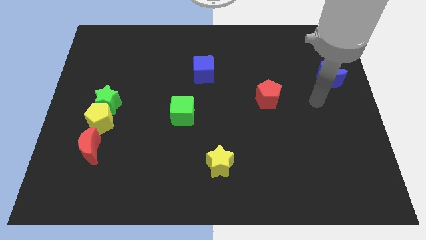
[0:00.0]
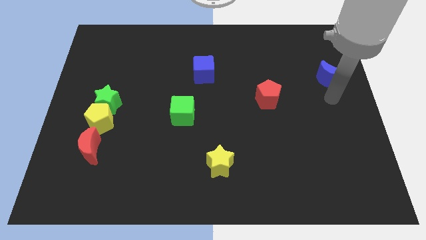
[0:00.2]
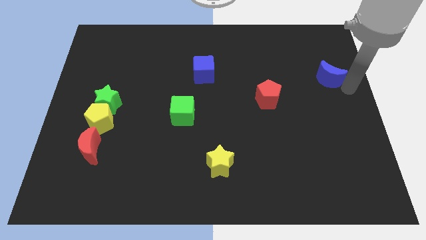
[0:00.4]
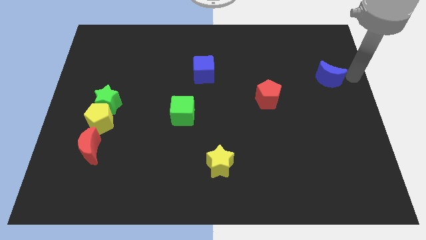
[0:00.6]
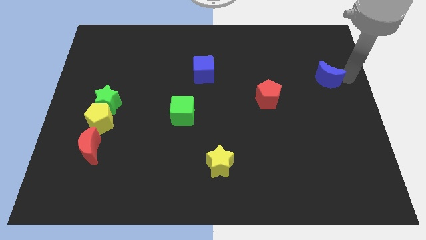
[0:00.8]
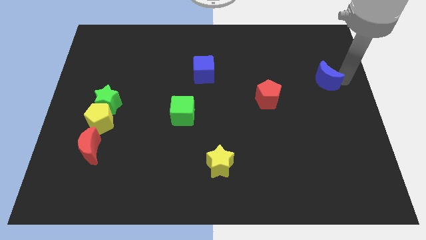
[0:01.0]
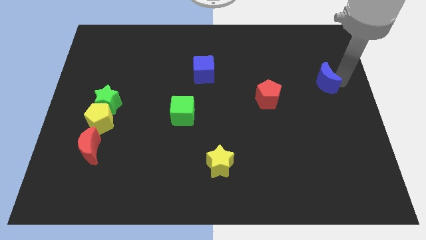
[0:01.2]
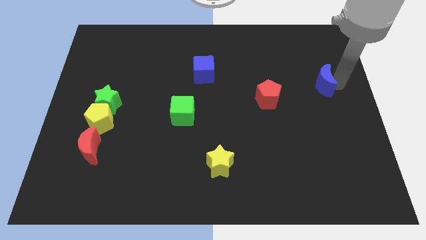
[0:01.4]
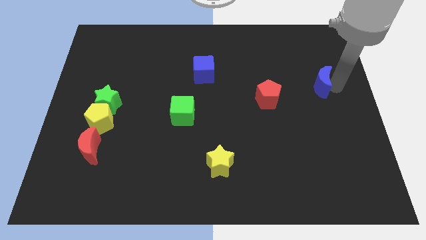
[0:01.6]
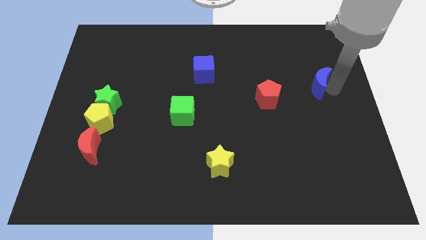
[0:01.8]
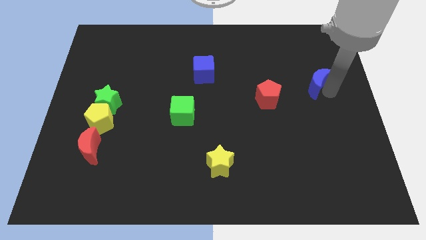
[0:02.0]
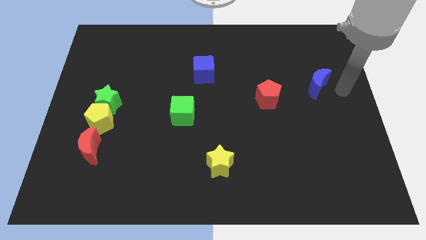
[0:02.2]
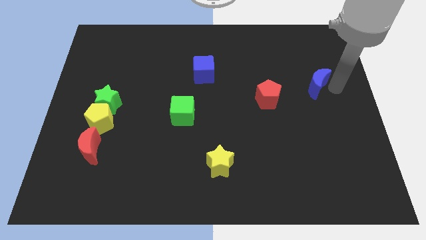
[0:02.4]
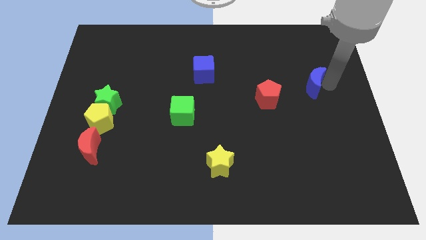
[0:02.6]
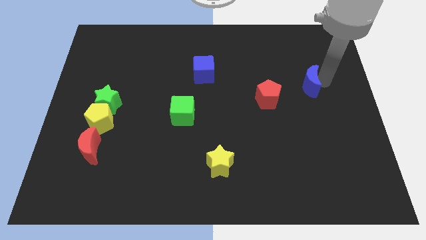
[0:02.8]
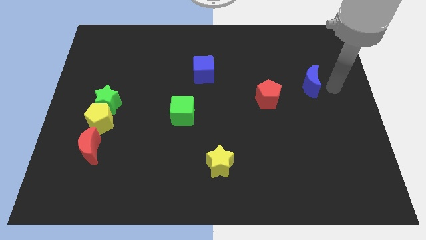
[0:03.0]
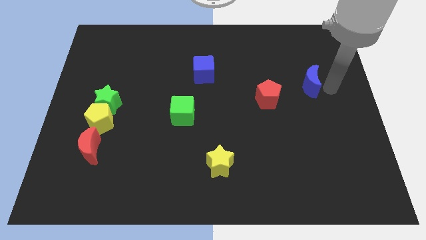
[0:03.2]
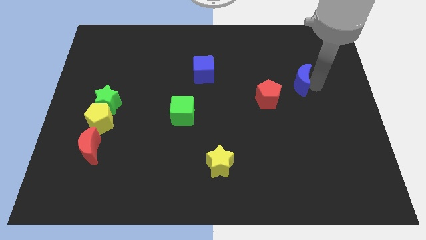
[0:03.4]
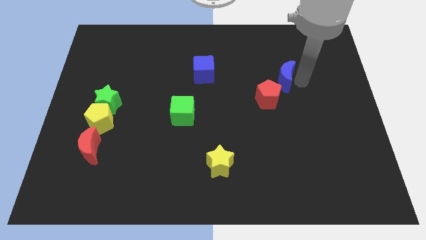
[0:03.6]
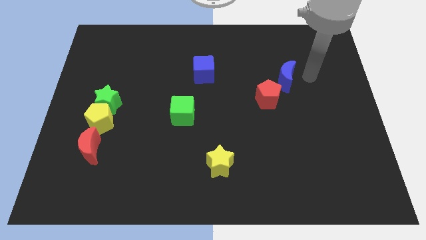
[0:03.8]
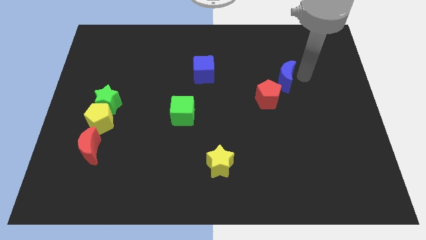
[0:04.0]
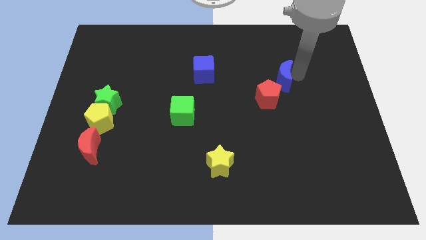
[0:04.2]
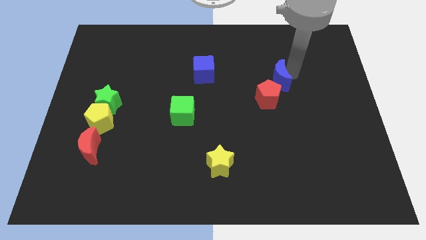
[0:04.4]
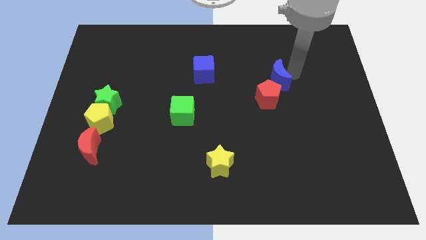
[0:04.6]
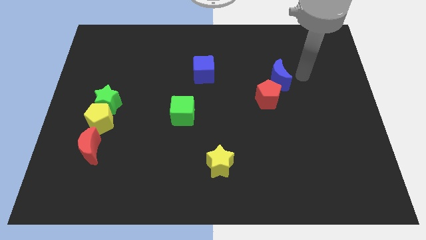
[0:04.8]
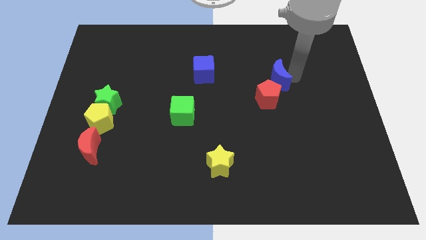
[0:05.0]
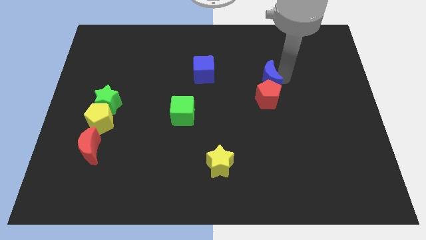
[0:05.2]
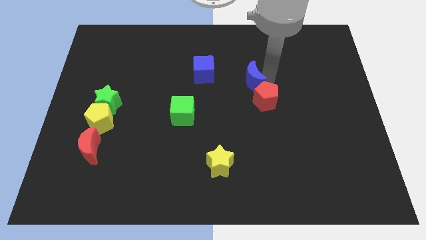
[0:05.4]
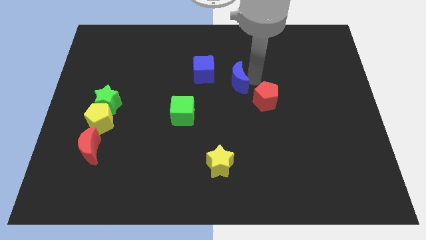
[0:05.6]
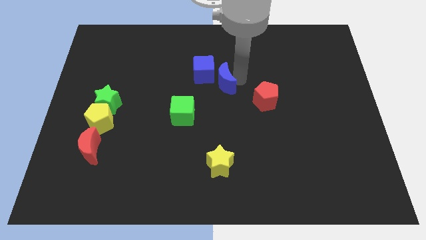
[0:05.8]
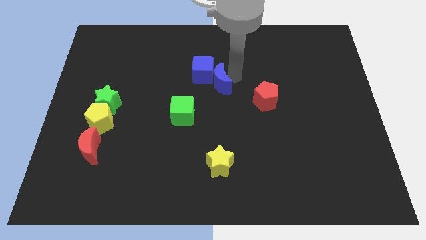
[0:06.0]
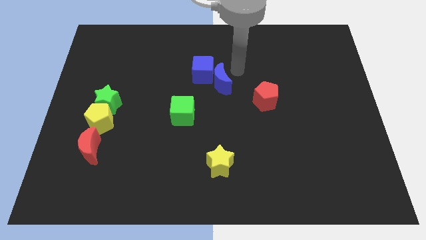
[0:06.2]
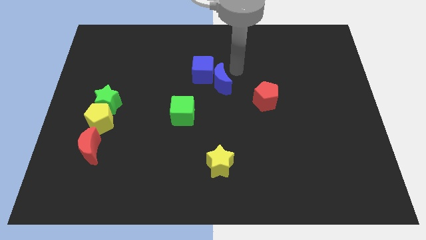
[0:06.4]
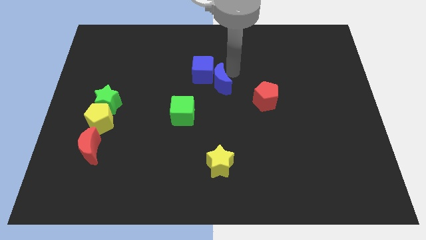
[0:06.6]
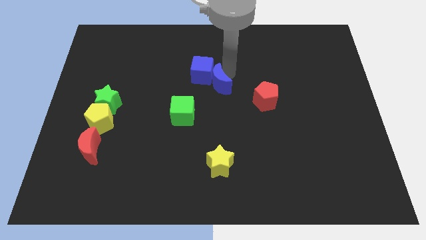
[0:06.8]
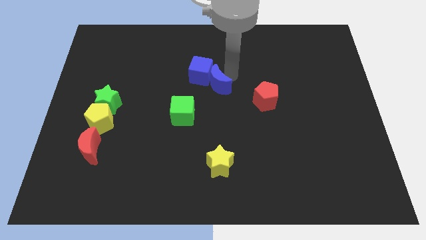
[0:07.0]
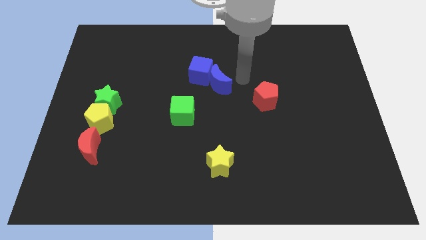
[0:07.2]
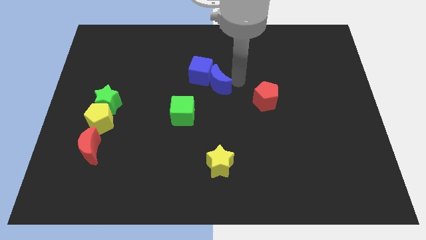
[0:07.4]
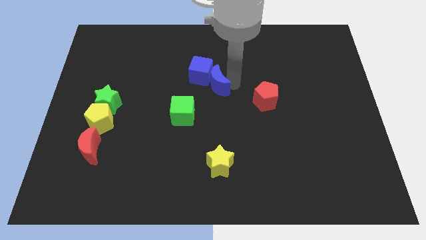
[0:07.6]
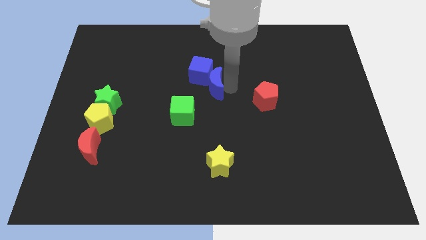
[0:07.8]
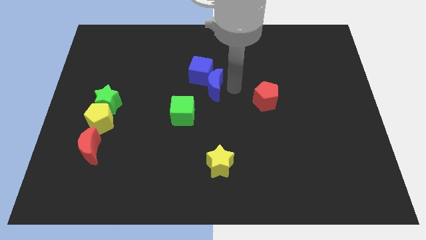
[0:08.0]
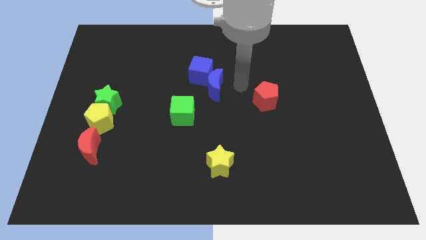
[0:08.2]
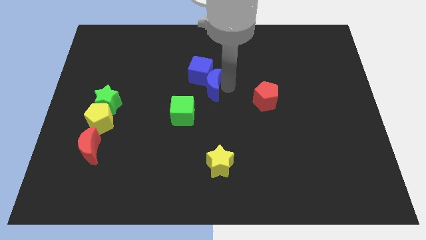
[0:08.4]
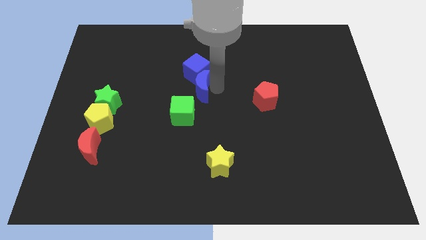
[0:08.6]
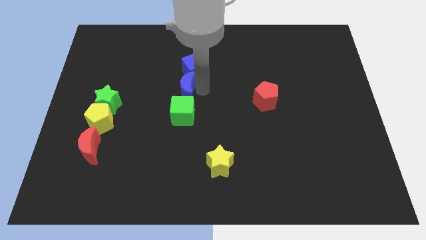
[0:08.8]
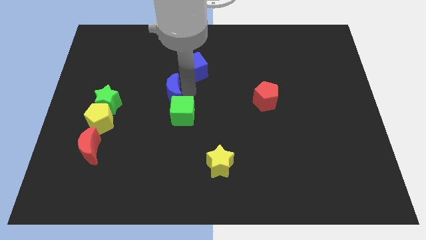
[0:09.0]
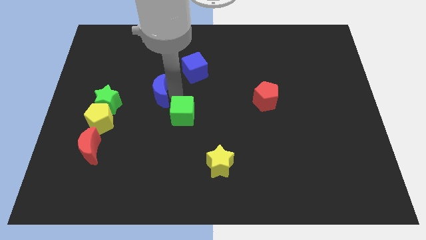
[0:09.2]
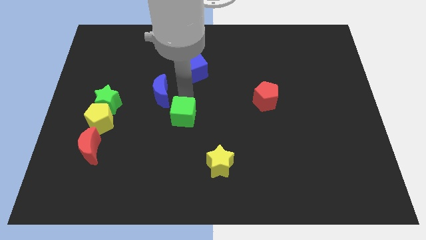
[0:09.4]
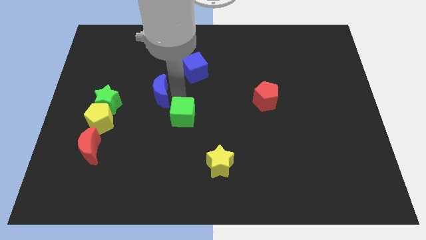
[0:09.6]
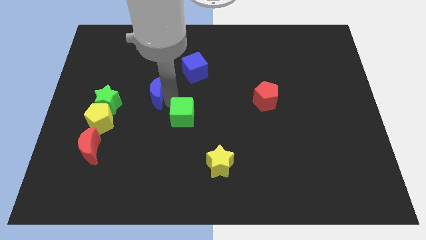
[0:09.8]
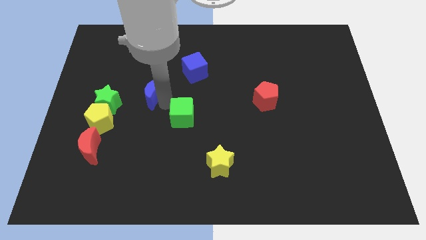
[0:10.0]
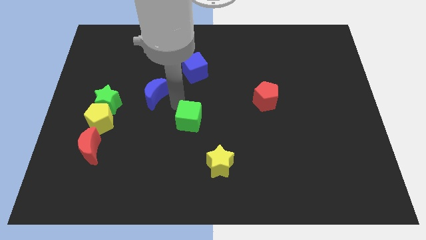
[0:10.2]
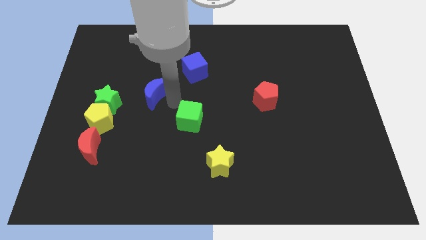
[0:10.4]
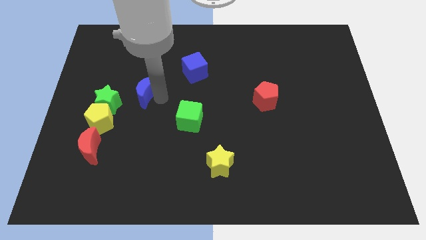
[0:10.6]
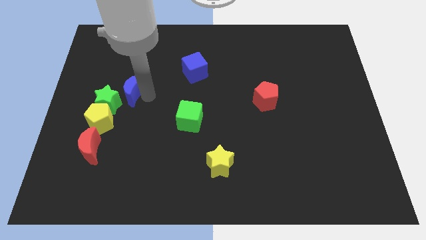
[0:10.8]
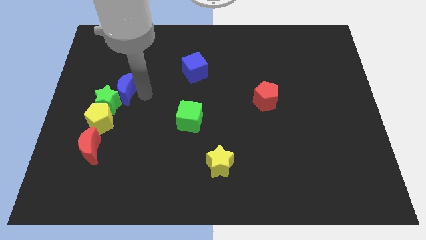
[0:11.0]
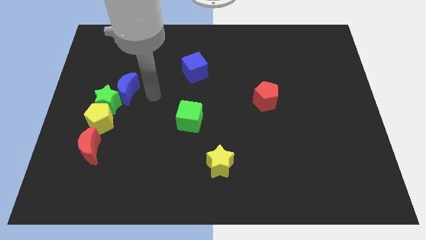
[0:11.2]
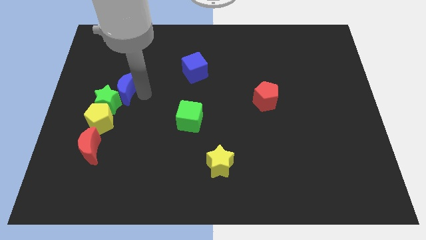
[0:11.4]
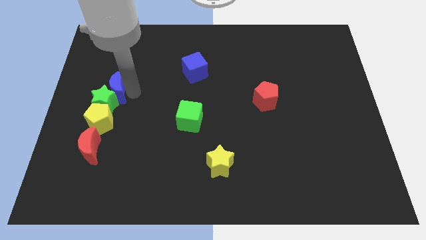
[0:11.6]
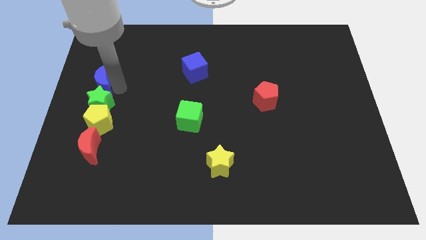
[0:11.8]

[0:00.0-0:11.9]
put the blue moon to the left side

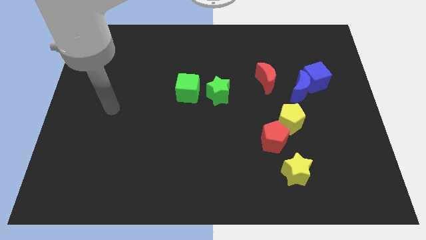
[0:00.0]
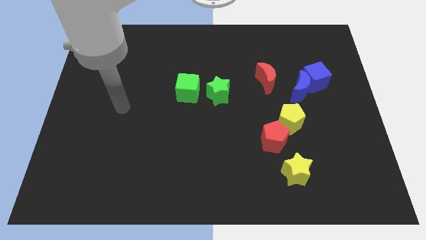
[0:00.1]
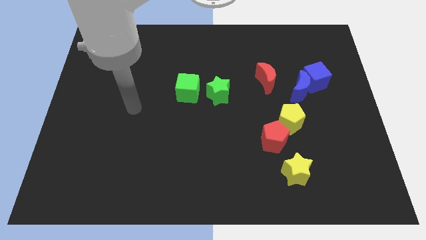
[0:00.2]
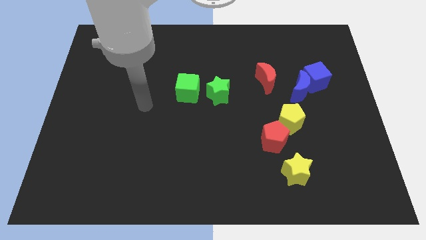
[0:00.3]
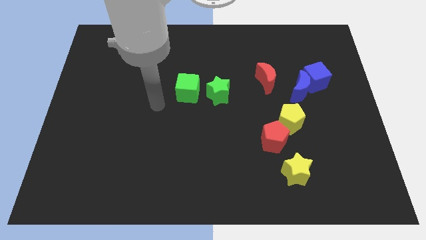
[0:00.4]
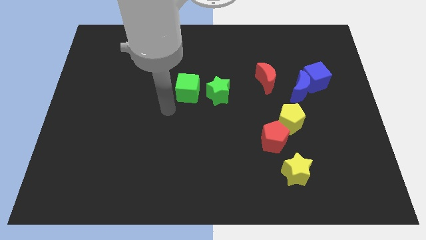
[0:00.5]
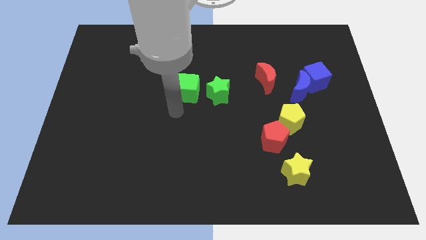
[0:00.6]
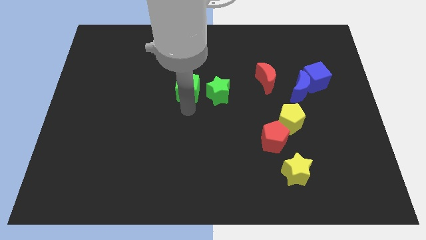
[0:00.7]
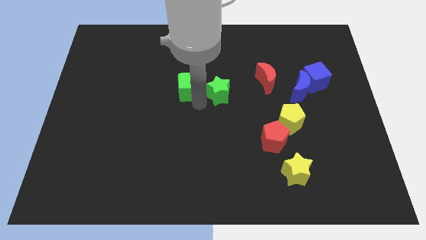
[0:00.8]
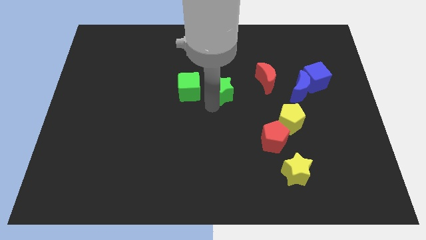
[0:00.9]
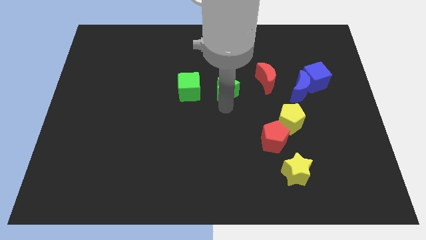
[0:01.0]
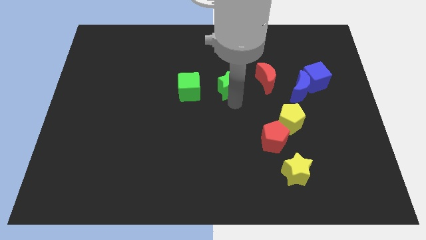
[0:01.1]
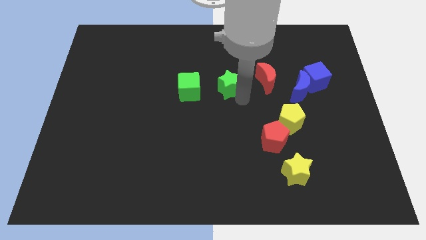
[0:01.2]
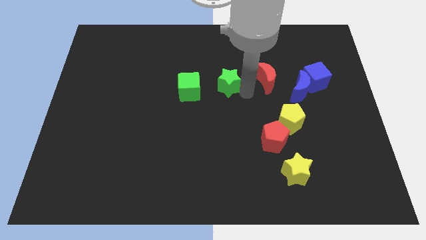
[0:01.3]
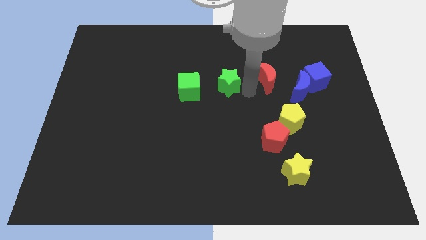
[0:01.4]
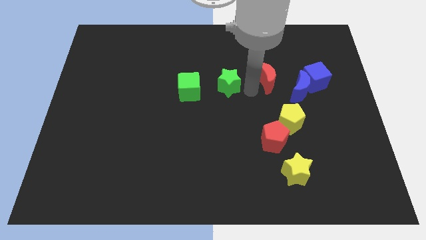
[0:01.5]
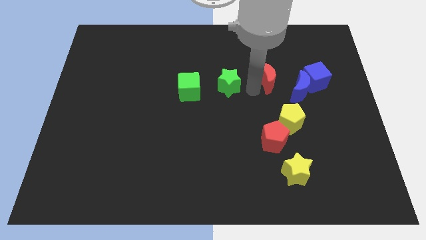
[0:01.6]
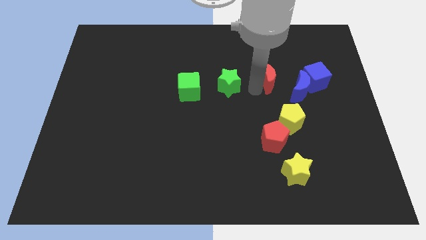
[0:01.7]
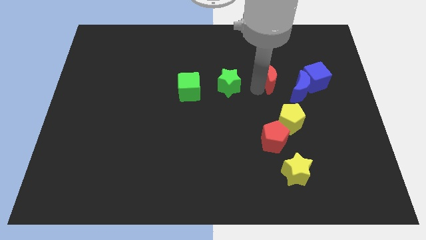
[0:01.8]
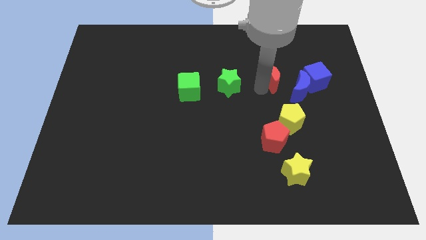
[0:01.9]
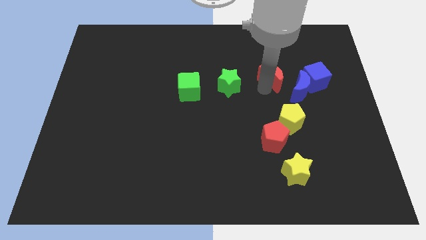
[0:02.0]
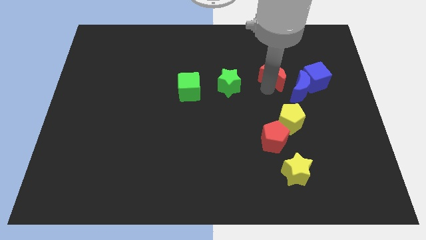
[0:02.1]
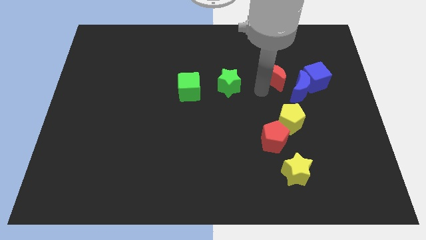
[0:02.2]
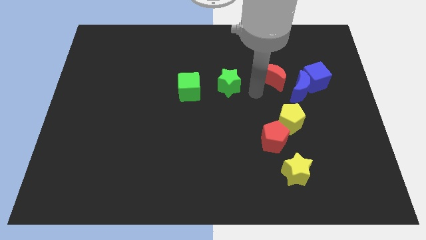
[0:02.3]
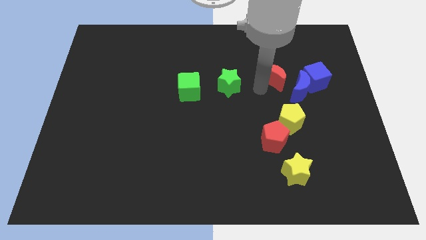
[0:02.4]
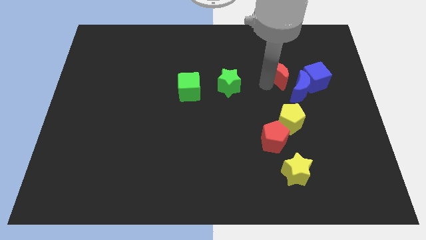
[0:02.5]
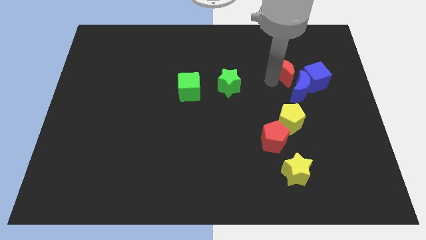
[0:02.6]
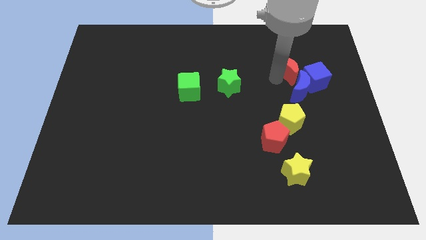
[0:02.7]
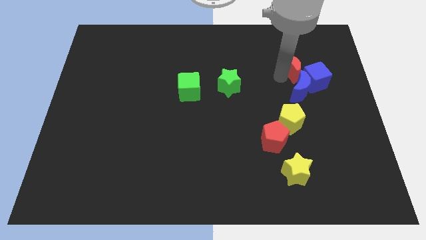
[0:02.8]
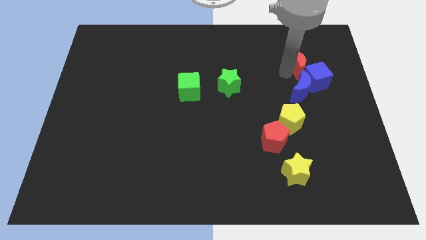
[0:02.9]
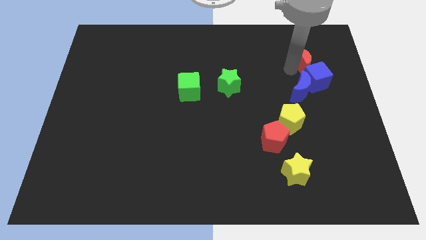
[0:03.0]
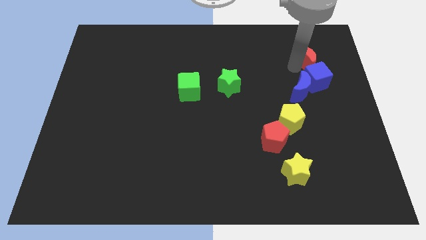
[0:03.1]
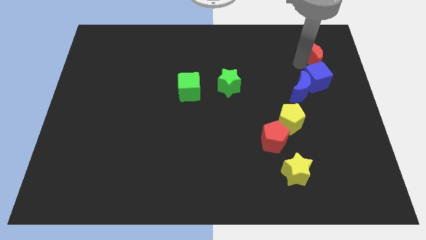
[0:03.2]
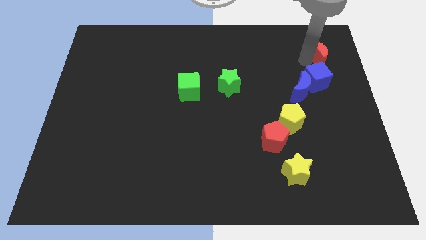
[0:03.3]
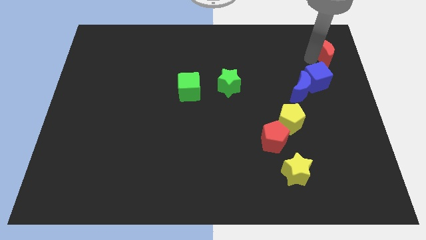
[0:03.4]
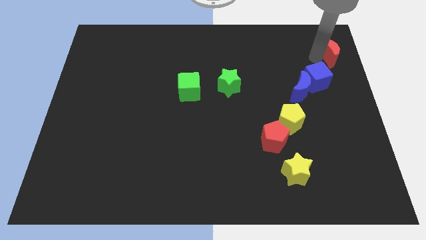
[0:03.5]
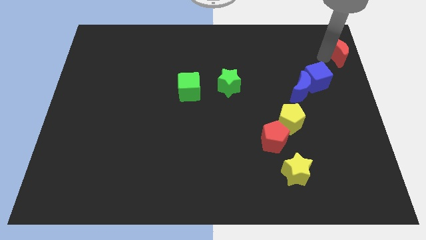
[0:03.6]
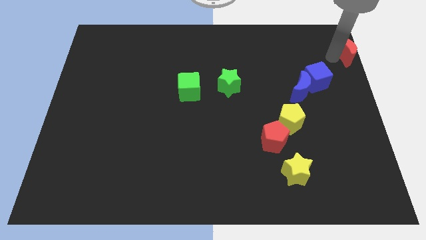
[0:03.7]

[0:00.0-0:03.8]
put the red moon to the top right of the board
